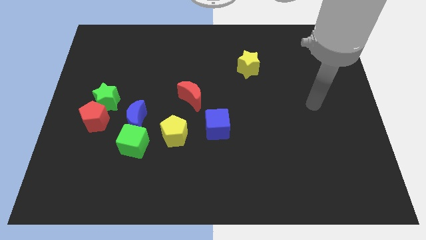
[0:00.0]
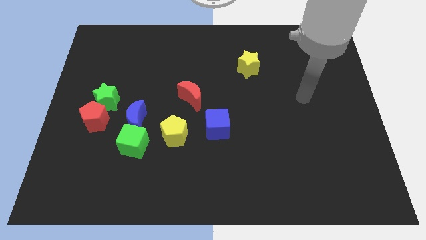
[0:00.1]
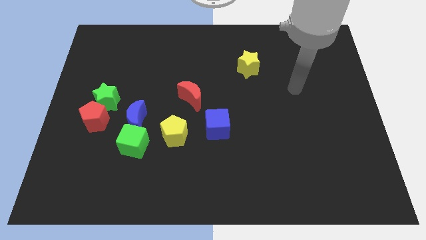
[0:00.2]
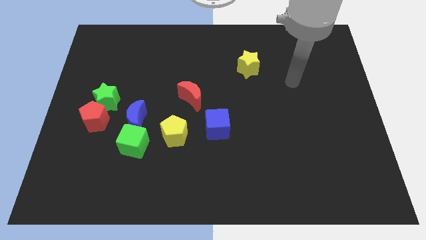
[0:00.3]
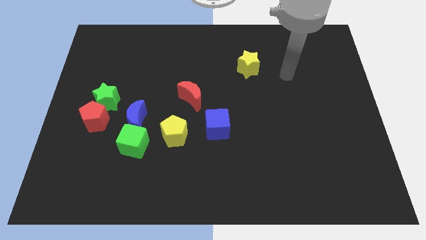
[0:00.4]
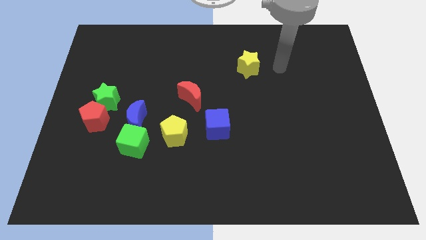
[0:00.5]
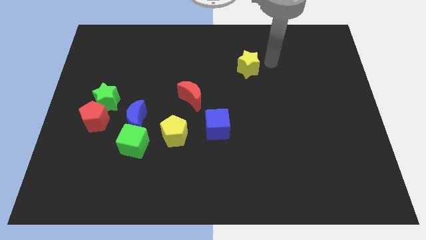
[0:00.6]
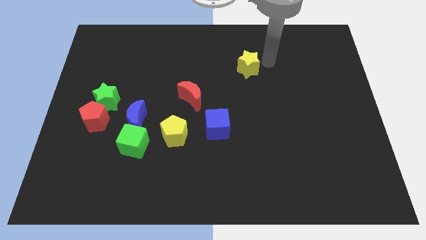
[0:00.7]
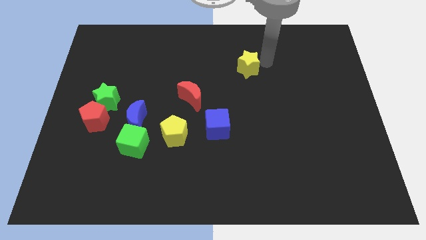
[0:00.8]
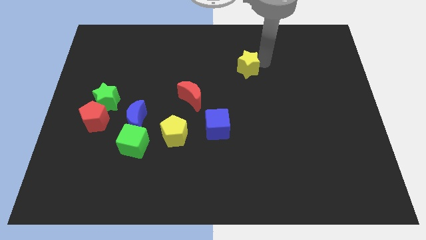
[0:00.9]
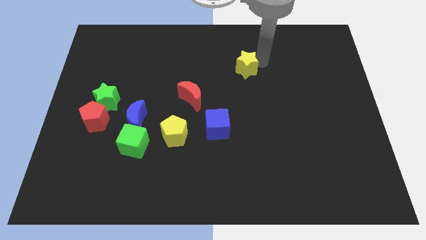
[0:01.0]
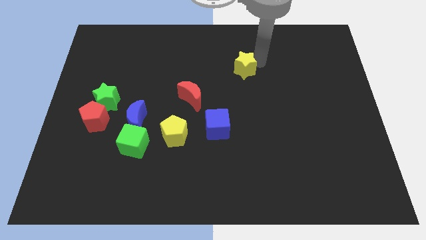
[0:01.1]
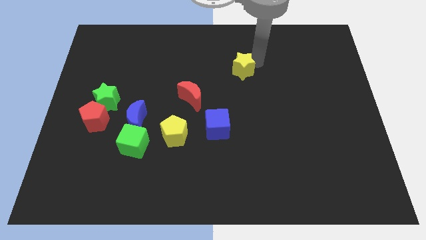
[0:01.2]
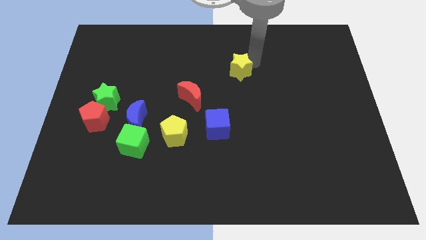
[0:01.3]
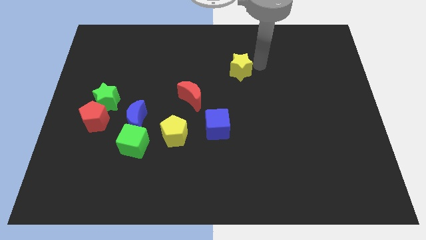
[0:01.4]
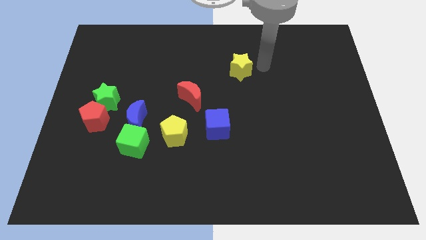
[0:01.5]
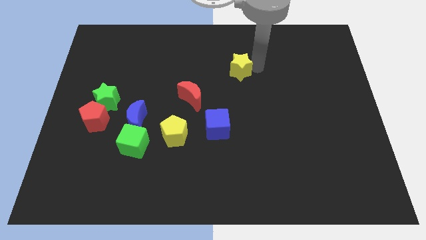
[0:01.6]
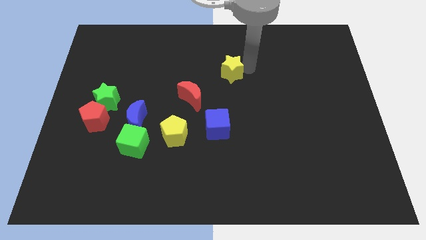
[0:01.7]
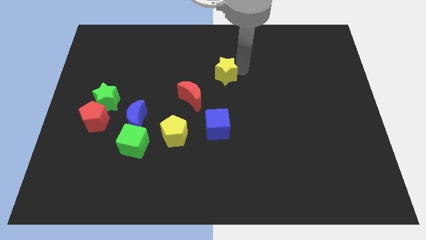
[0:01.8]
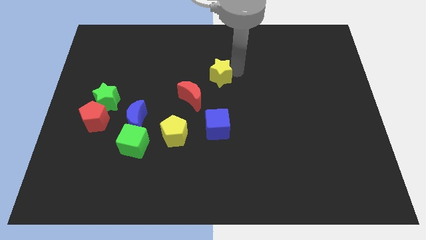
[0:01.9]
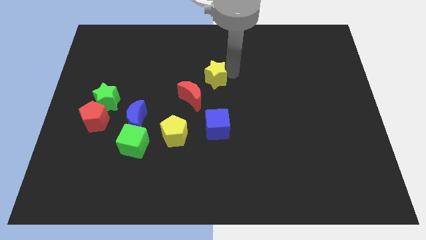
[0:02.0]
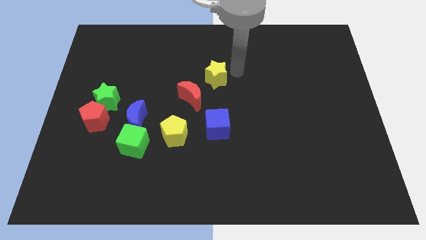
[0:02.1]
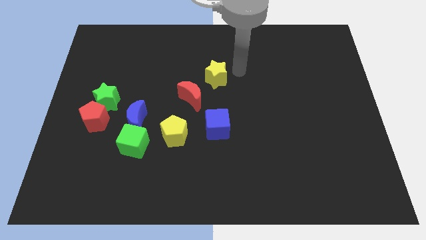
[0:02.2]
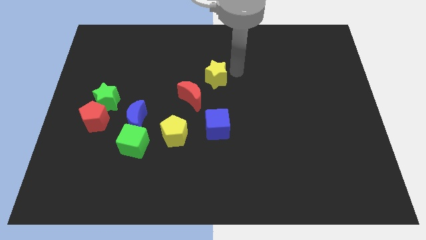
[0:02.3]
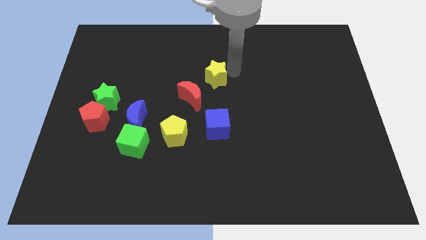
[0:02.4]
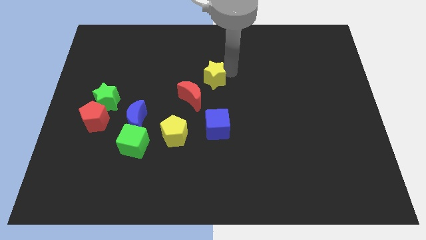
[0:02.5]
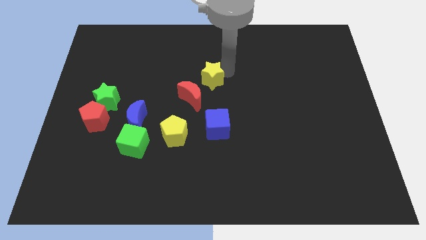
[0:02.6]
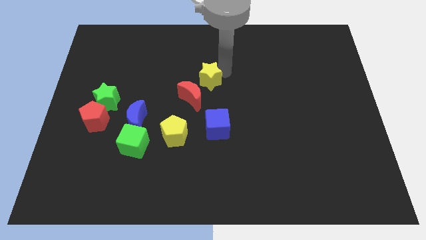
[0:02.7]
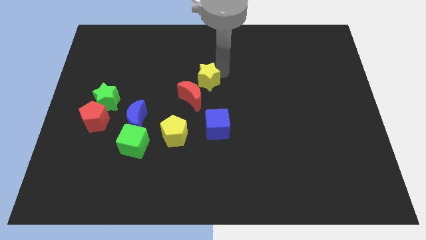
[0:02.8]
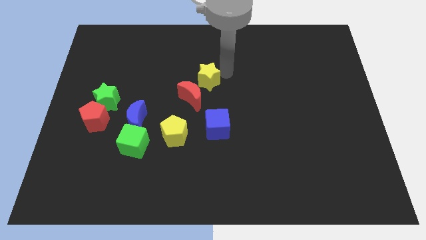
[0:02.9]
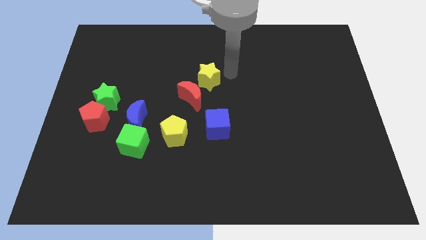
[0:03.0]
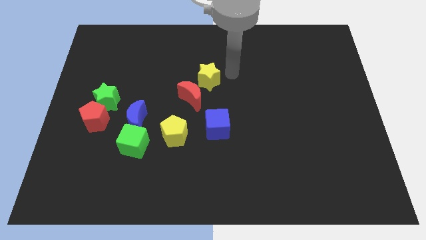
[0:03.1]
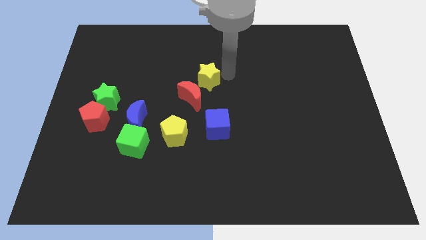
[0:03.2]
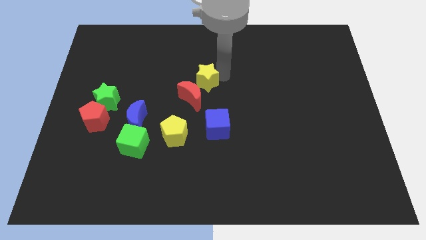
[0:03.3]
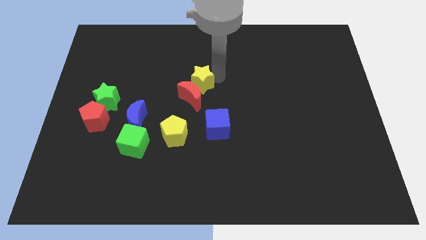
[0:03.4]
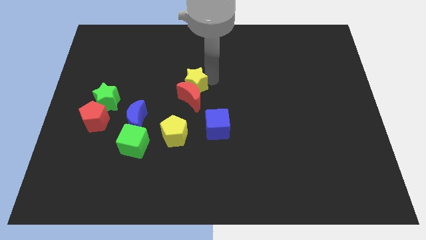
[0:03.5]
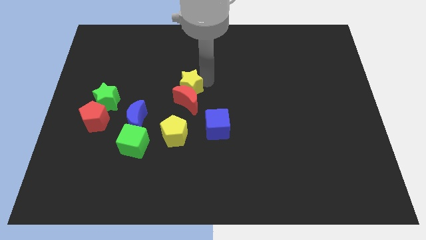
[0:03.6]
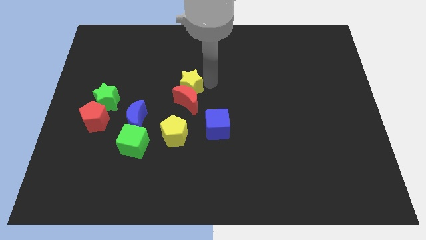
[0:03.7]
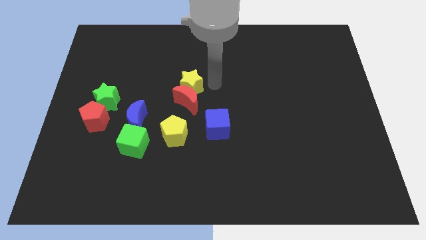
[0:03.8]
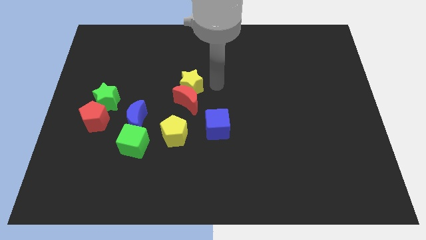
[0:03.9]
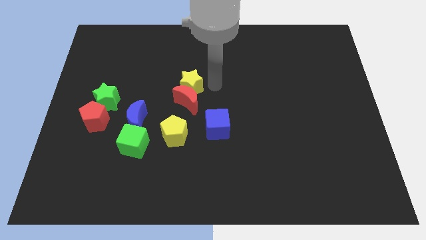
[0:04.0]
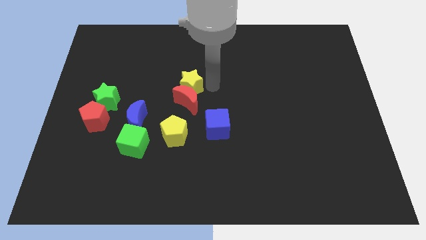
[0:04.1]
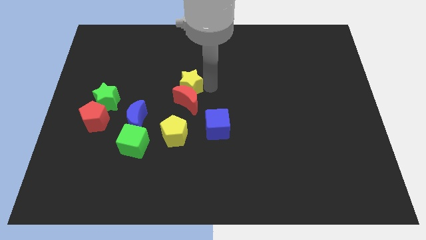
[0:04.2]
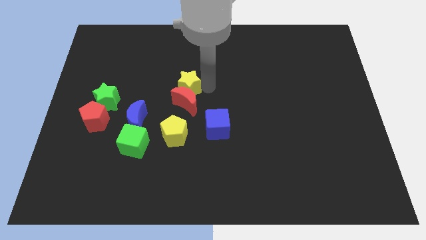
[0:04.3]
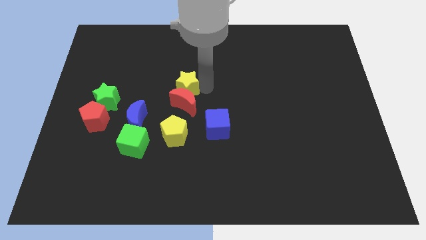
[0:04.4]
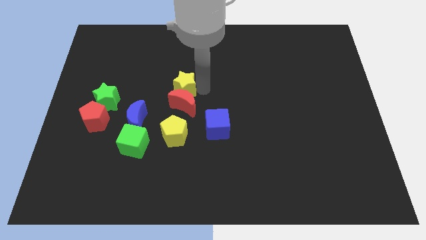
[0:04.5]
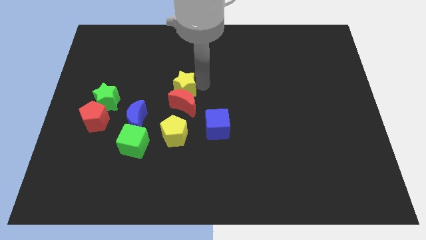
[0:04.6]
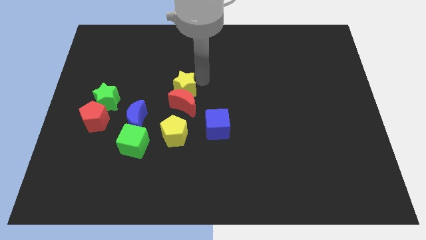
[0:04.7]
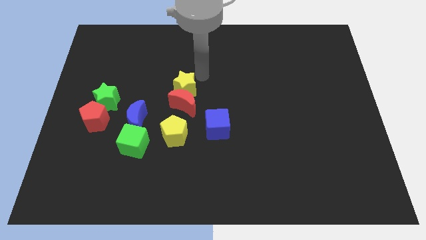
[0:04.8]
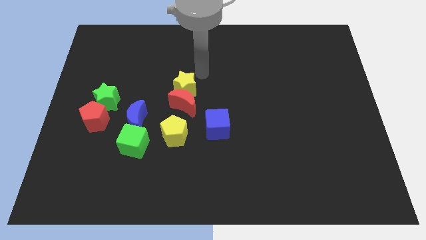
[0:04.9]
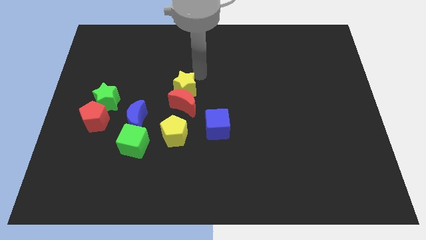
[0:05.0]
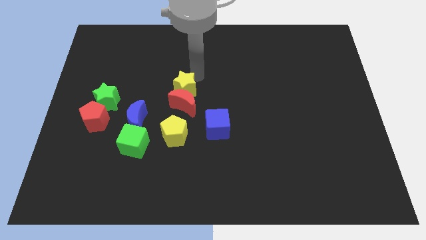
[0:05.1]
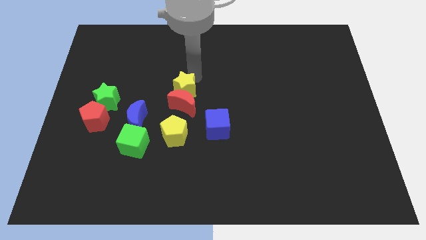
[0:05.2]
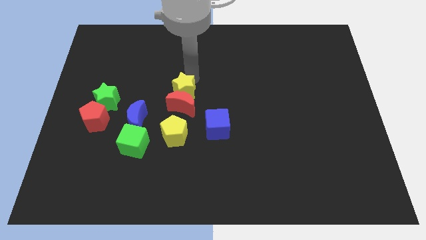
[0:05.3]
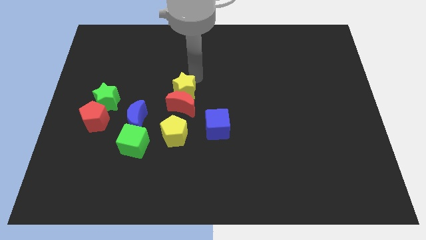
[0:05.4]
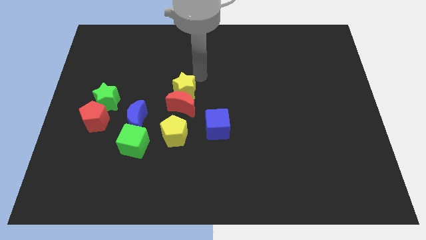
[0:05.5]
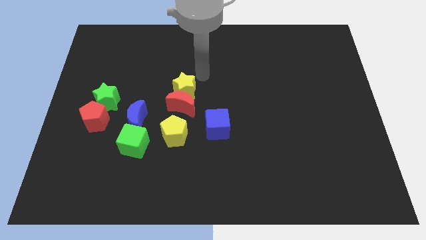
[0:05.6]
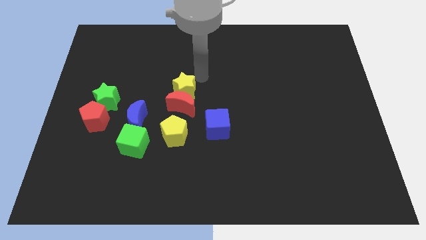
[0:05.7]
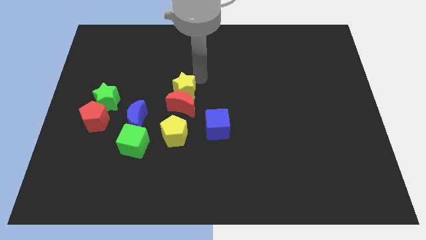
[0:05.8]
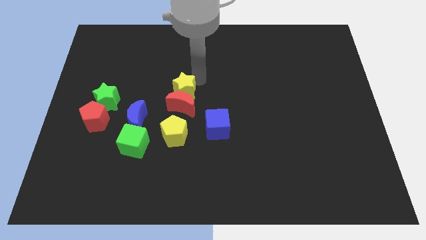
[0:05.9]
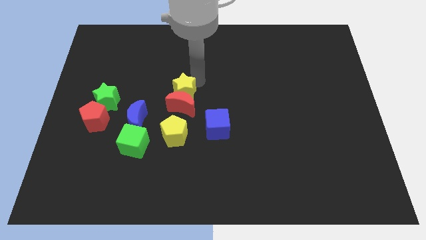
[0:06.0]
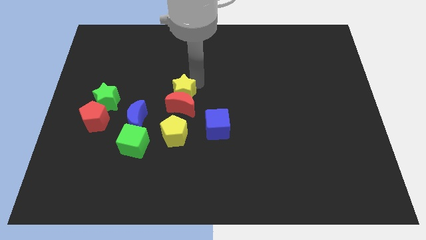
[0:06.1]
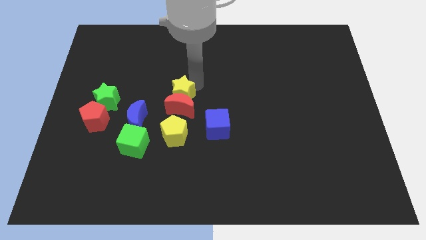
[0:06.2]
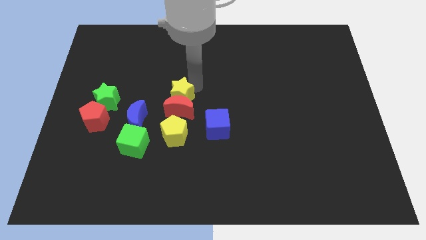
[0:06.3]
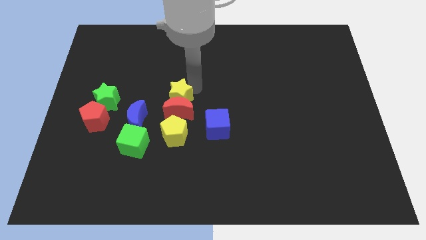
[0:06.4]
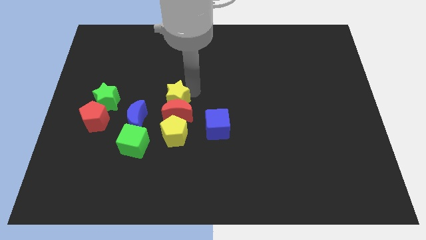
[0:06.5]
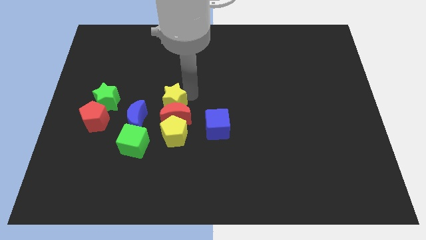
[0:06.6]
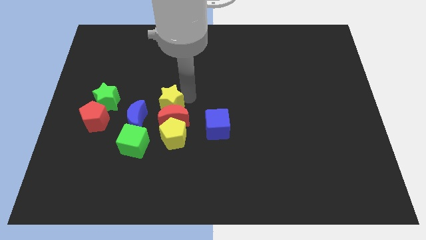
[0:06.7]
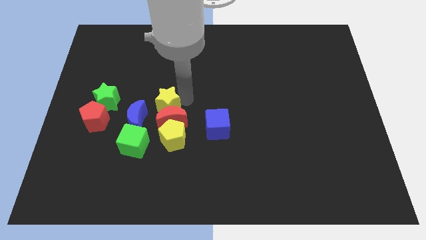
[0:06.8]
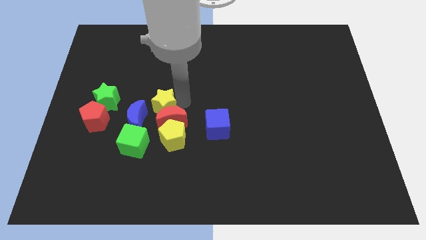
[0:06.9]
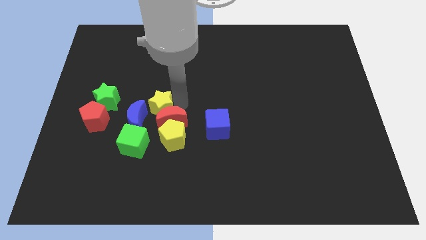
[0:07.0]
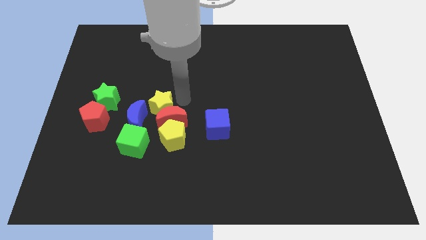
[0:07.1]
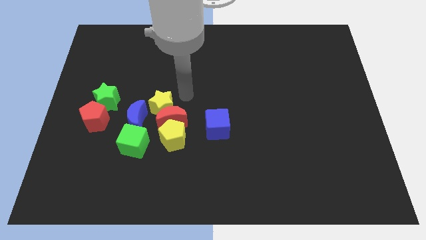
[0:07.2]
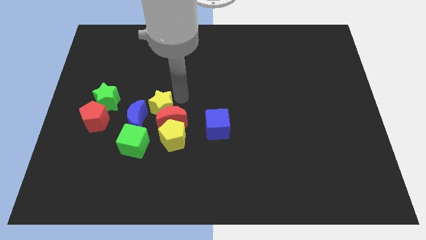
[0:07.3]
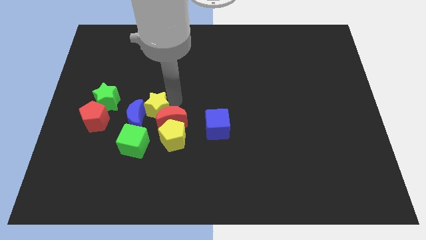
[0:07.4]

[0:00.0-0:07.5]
put the yellow star towards the blue moon

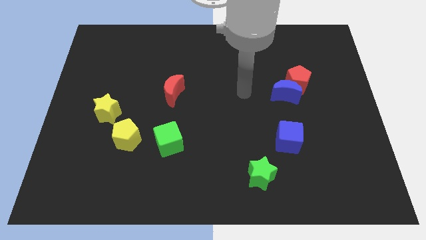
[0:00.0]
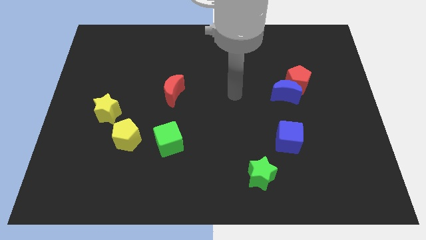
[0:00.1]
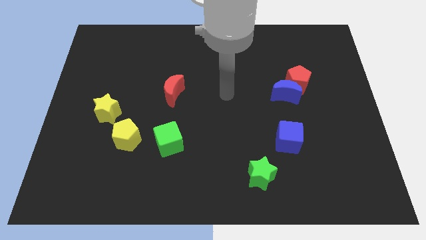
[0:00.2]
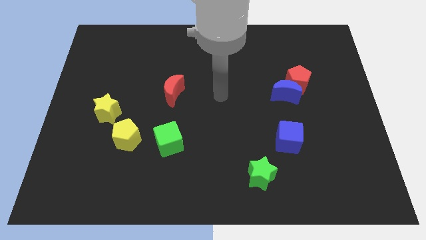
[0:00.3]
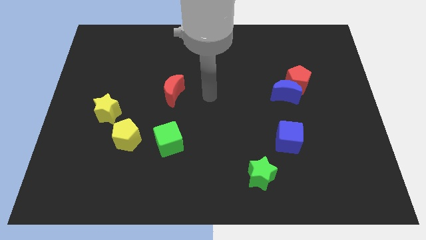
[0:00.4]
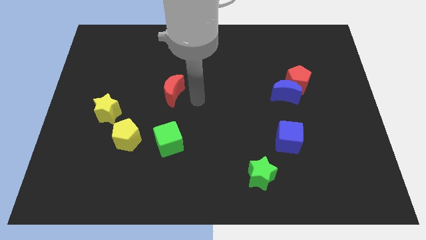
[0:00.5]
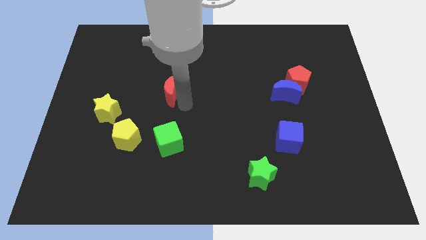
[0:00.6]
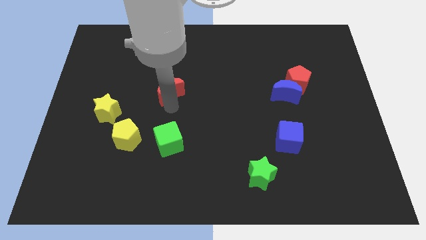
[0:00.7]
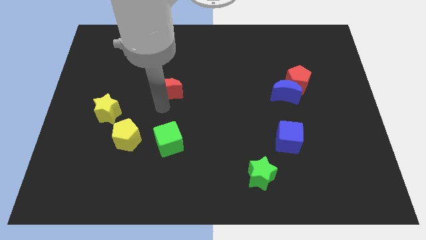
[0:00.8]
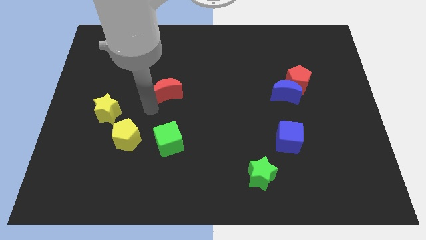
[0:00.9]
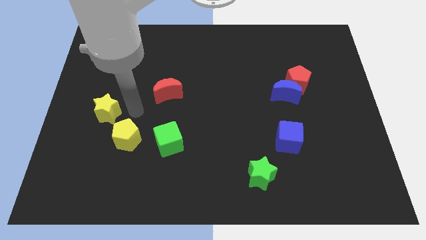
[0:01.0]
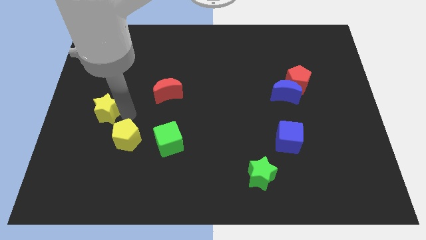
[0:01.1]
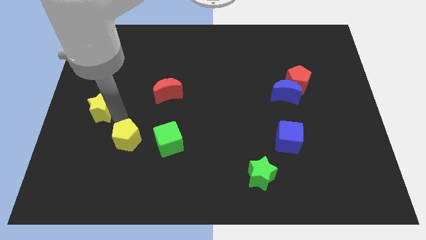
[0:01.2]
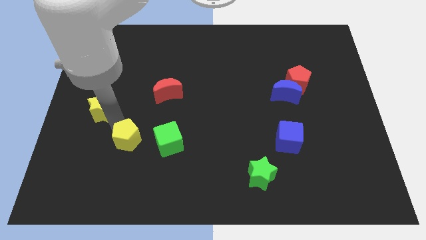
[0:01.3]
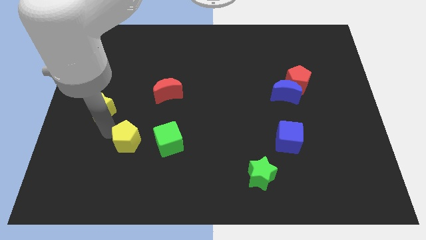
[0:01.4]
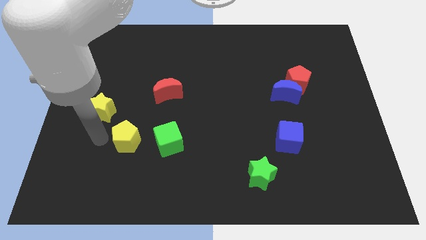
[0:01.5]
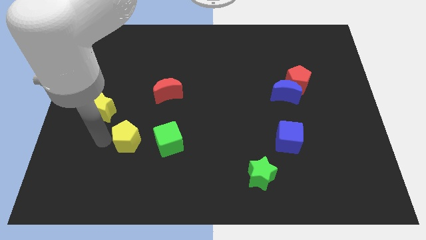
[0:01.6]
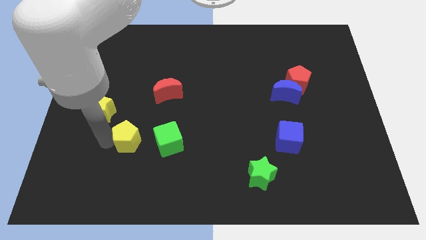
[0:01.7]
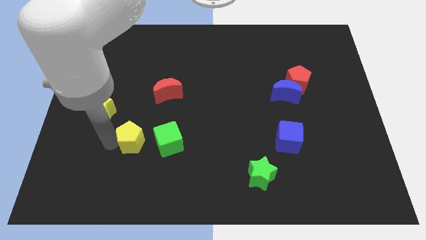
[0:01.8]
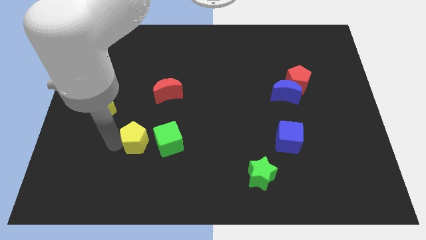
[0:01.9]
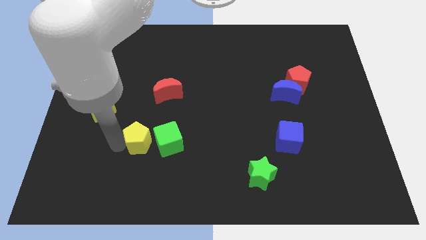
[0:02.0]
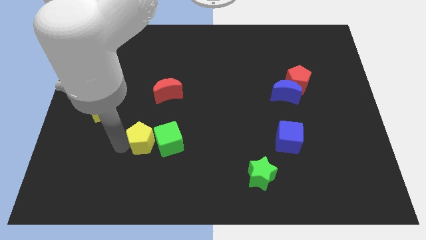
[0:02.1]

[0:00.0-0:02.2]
move the yellow pentagon towards the green cube
